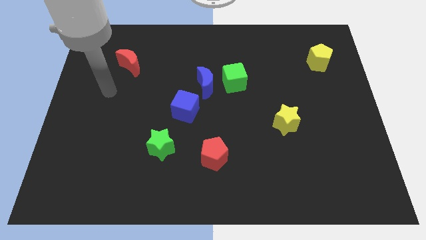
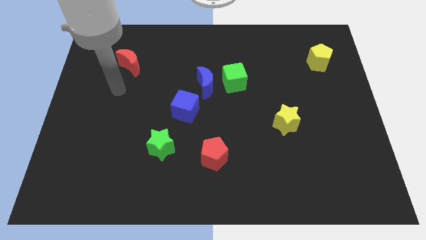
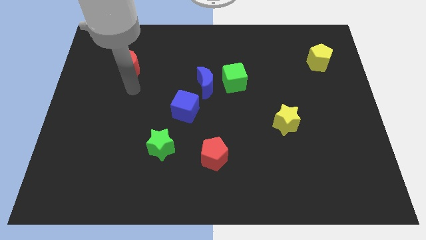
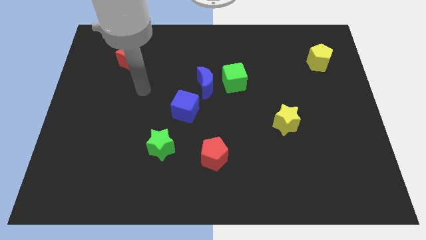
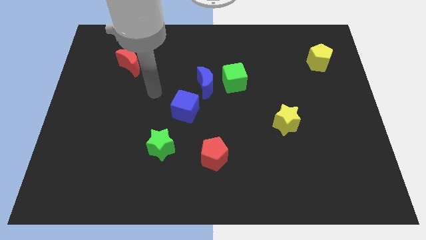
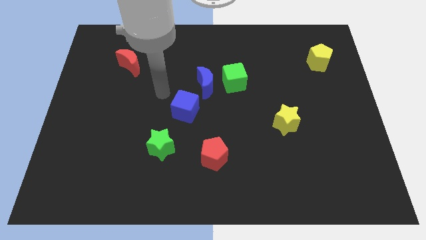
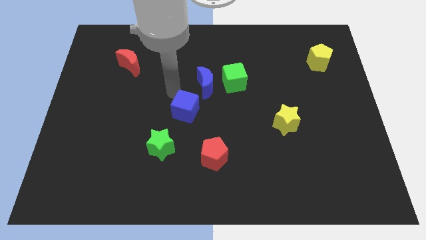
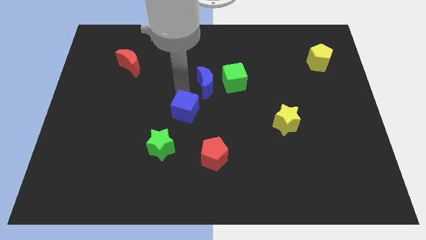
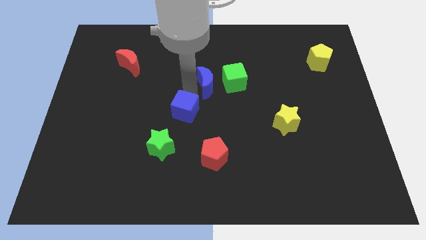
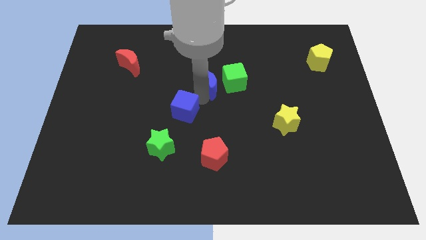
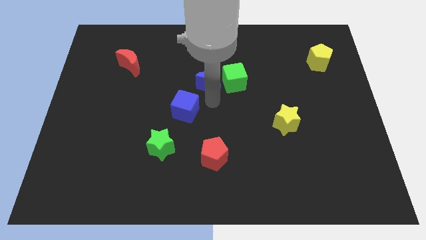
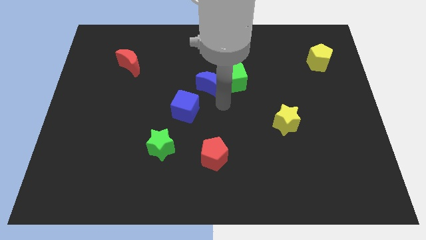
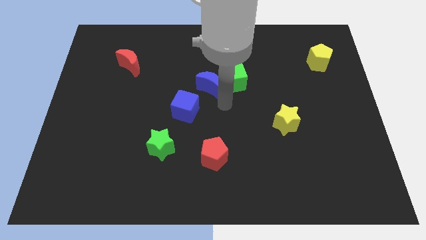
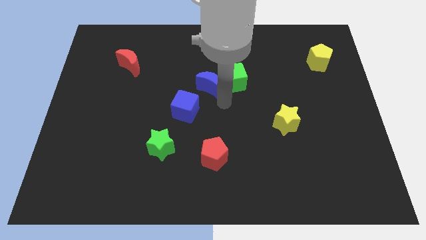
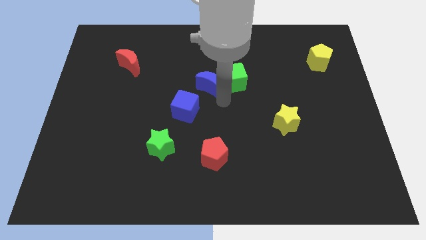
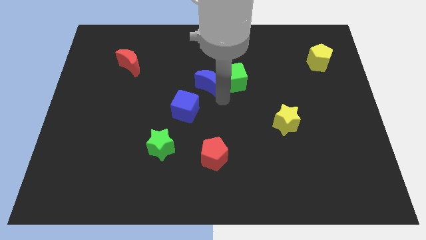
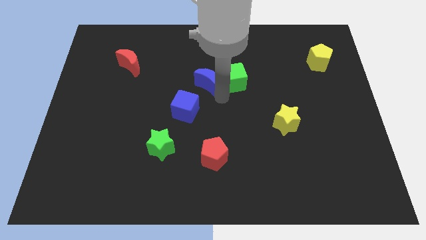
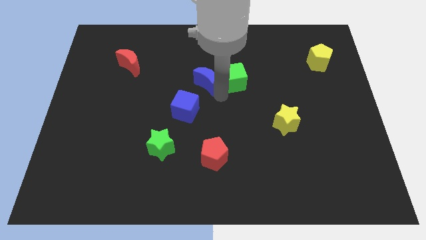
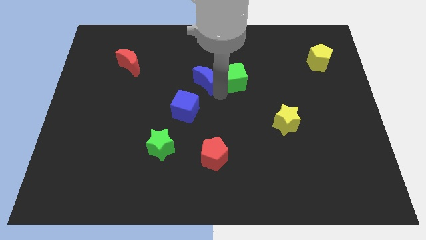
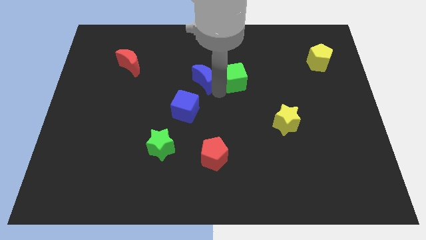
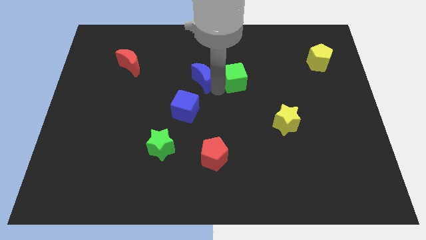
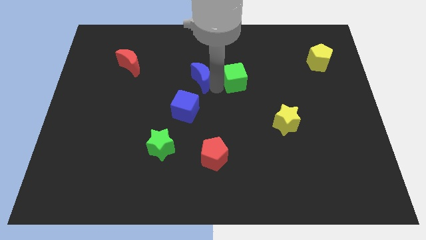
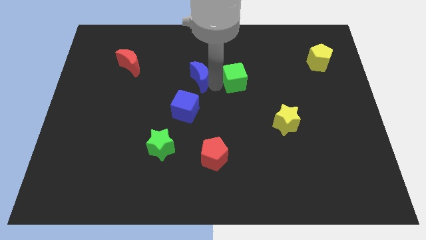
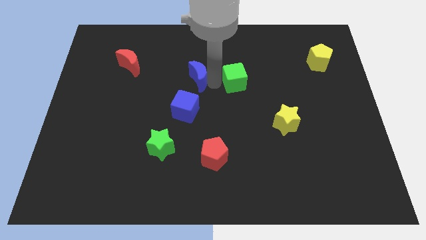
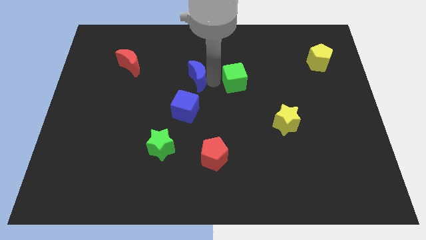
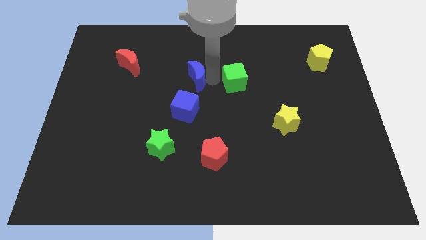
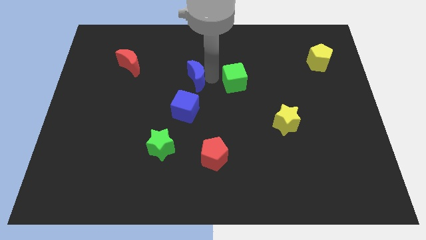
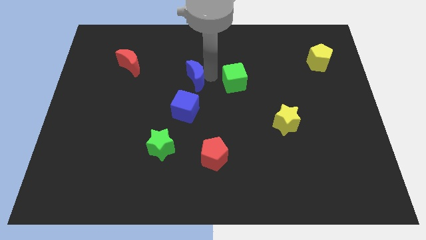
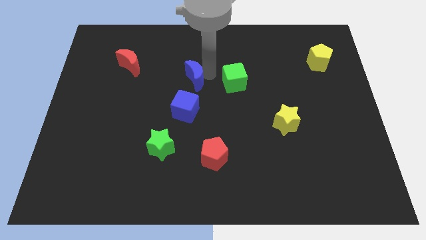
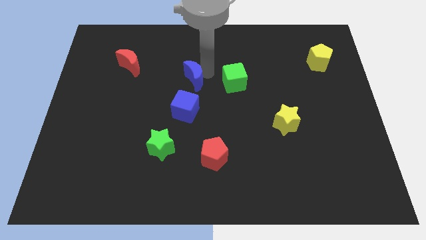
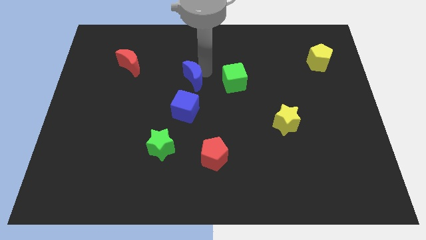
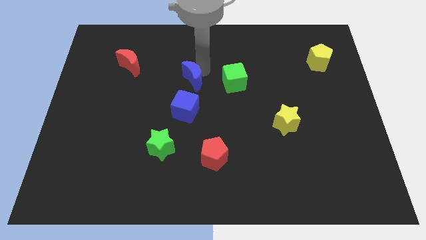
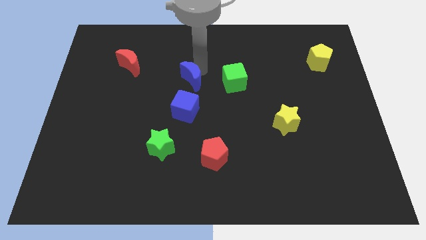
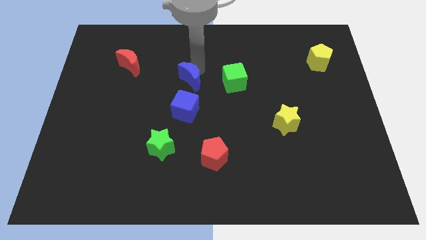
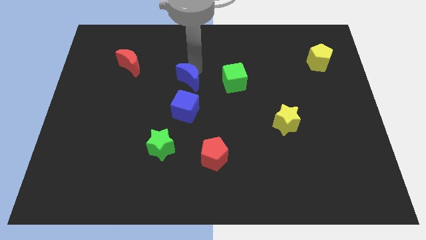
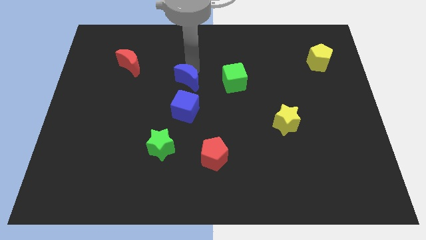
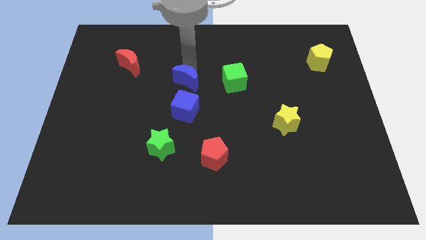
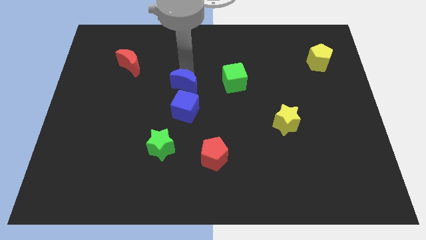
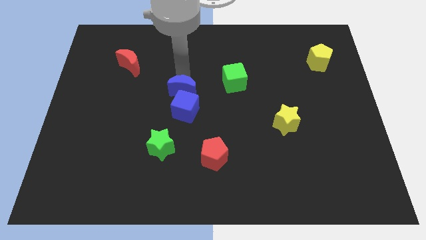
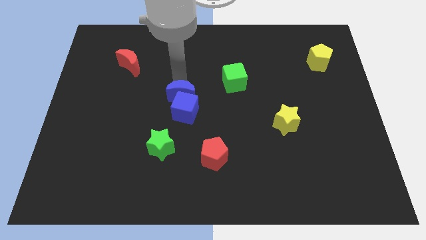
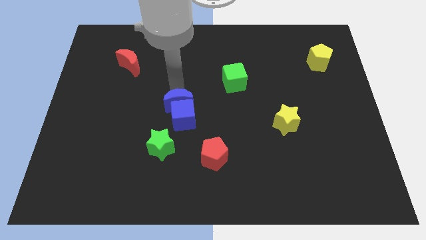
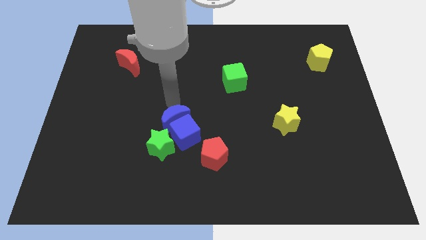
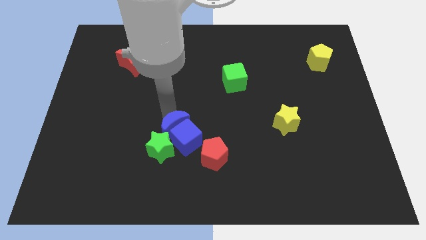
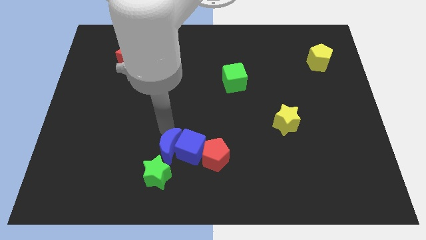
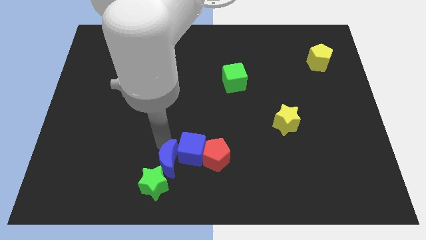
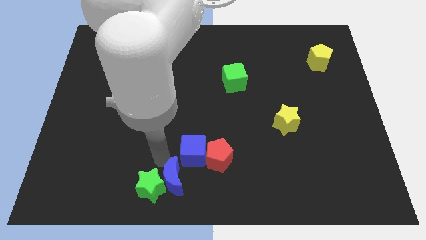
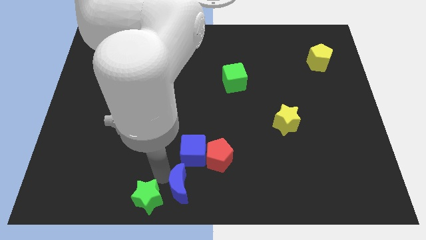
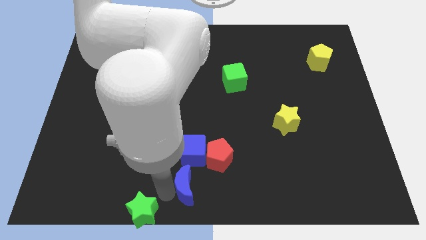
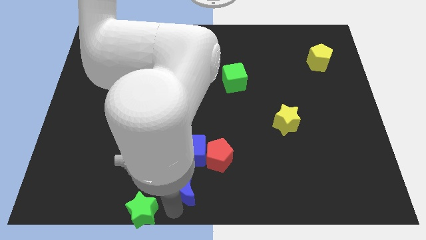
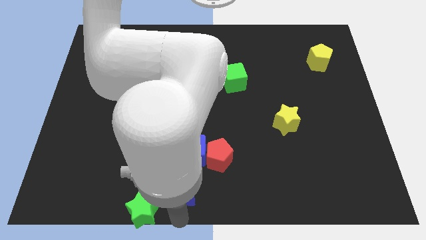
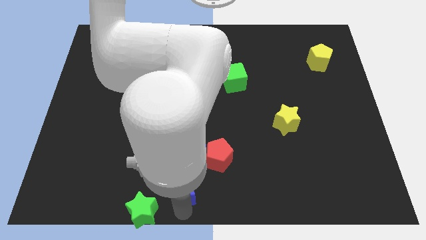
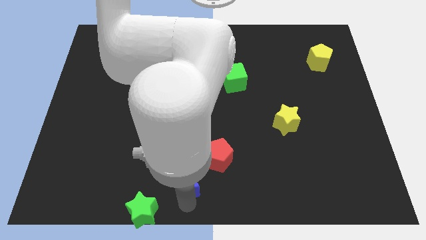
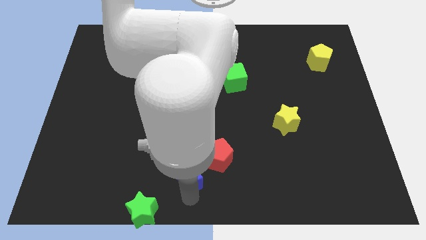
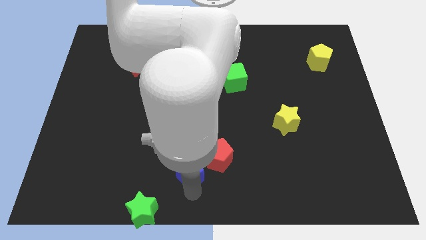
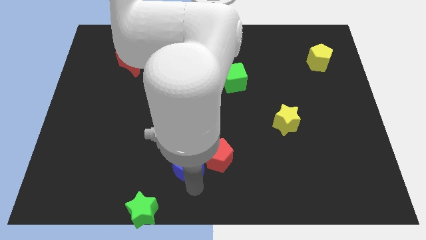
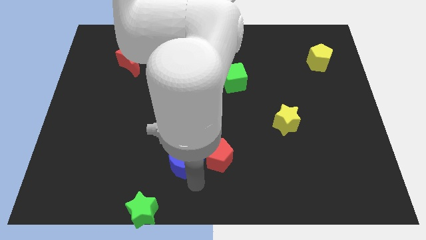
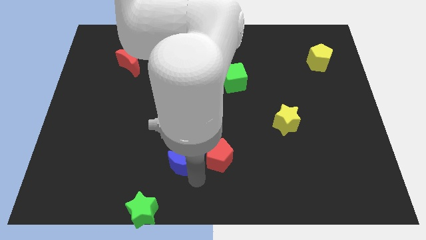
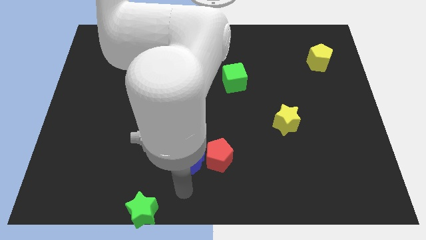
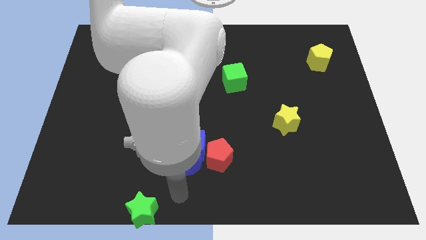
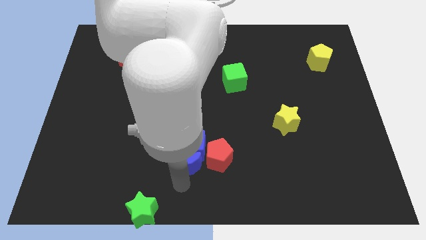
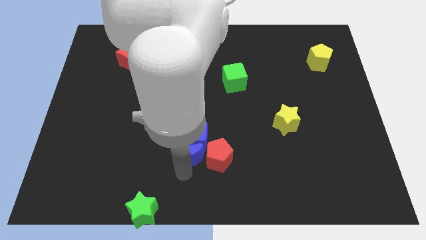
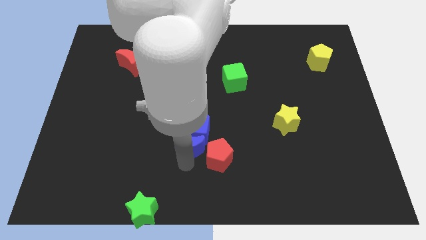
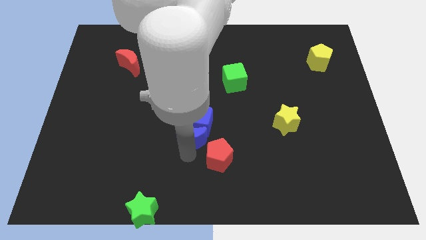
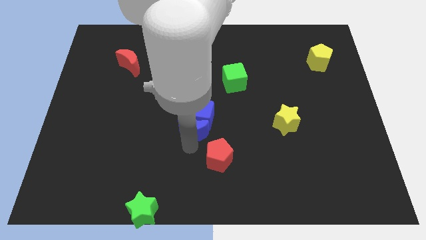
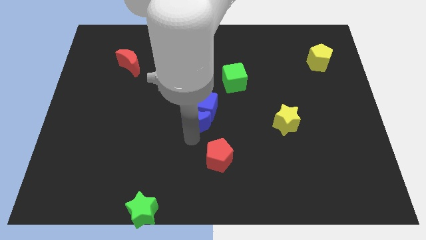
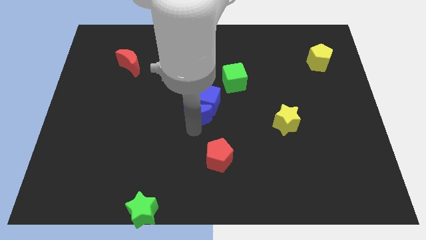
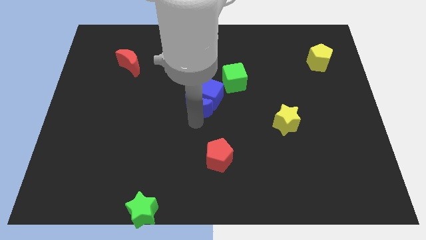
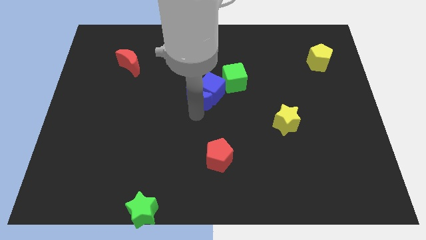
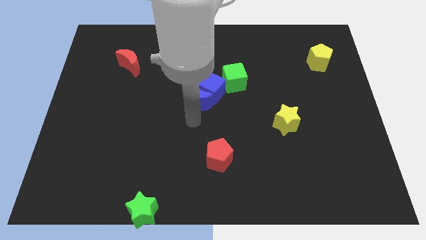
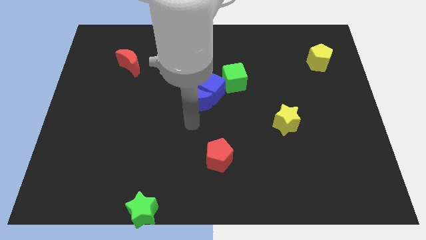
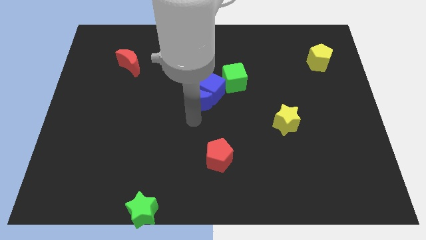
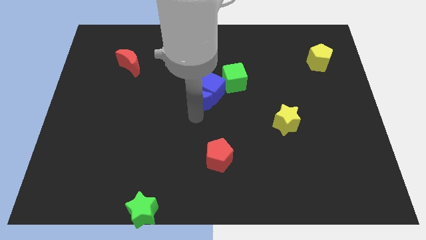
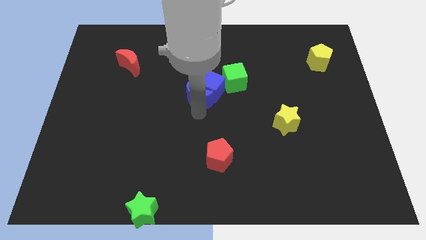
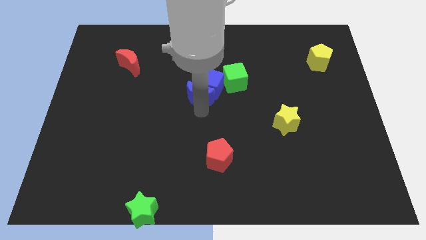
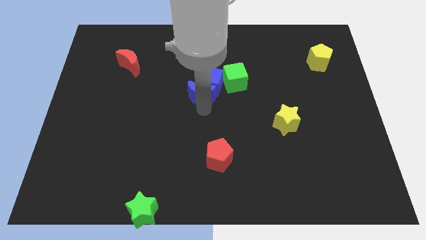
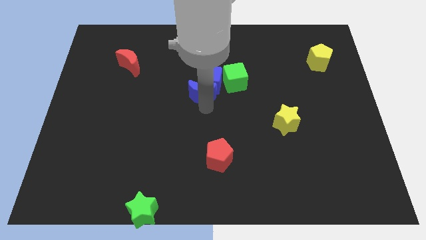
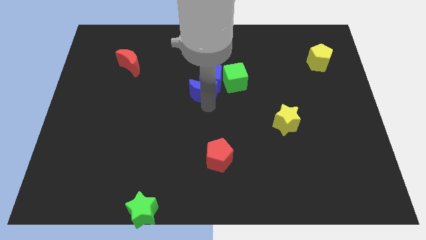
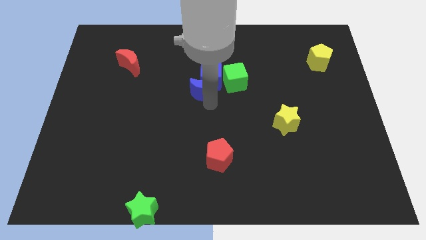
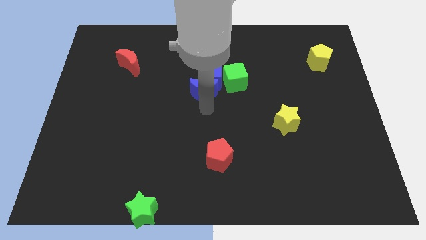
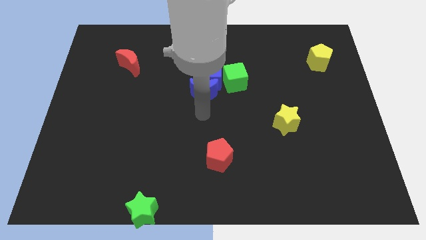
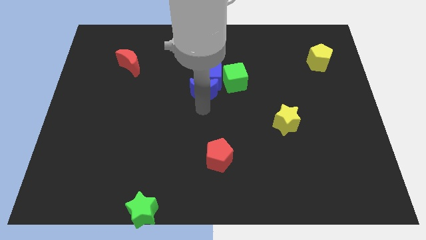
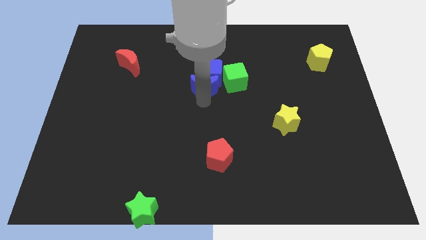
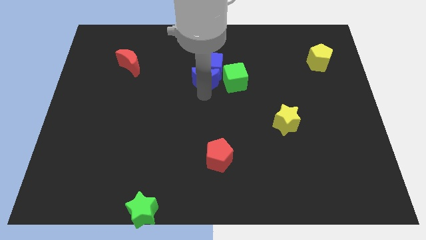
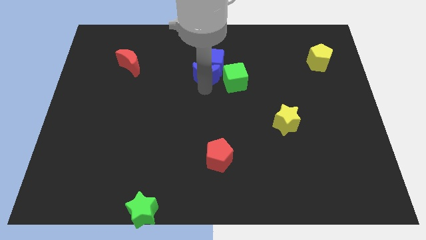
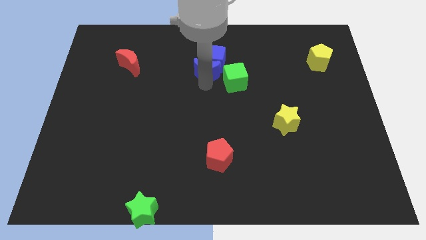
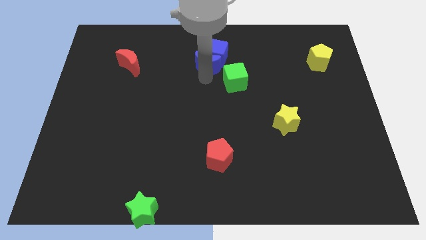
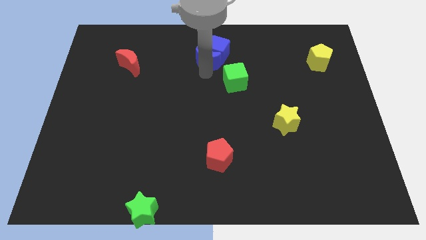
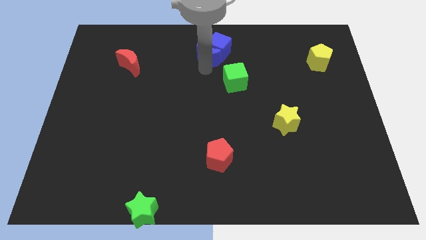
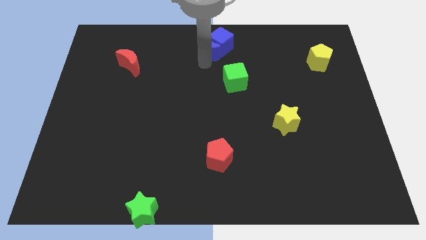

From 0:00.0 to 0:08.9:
push the blue moon to the top
